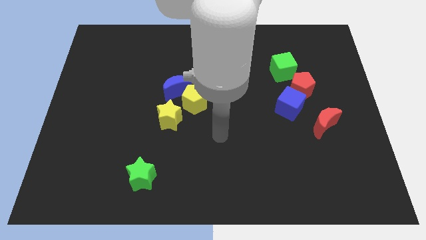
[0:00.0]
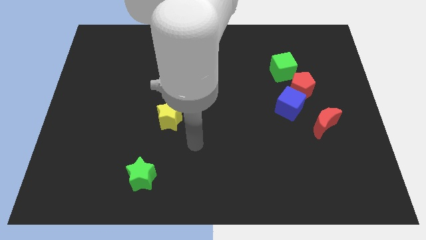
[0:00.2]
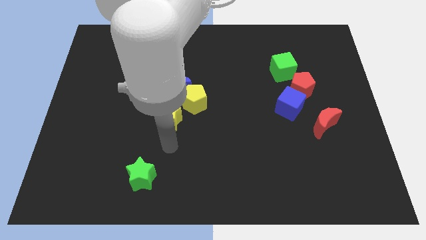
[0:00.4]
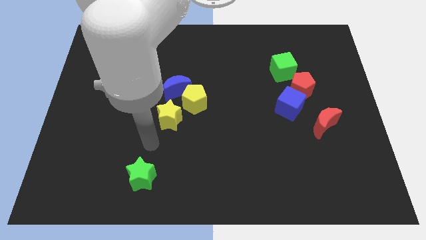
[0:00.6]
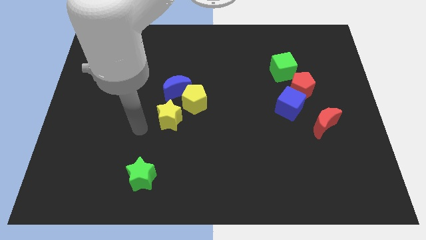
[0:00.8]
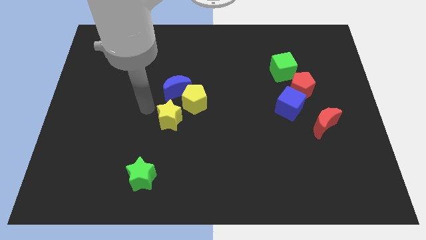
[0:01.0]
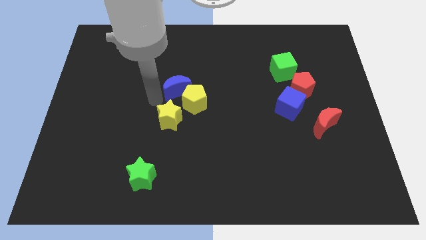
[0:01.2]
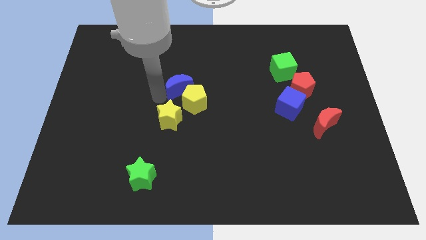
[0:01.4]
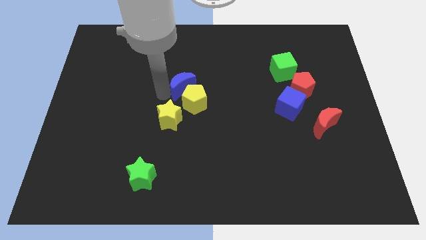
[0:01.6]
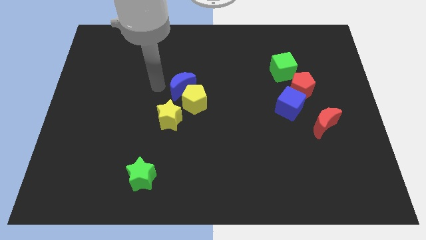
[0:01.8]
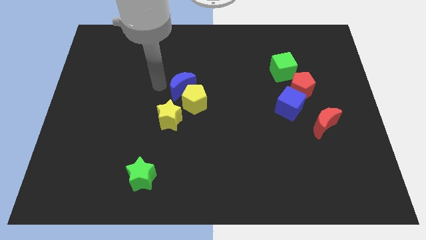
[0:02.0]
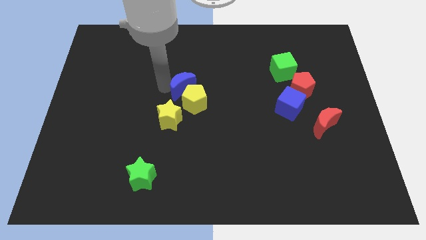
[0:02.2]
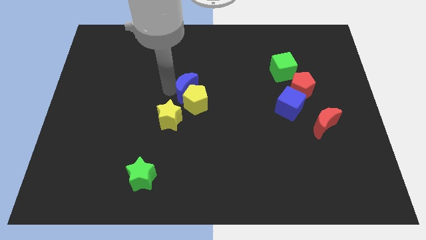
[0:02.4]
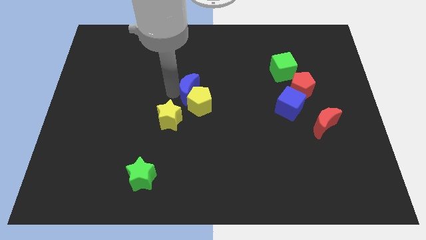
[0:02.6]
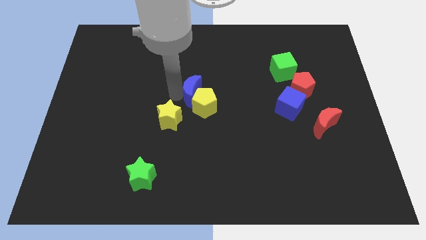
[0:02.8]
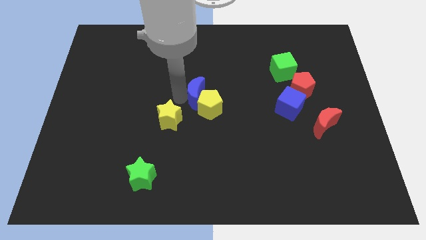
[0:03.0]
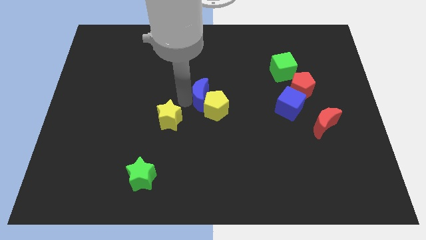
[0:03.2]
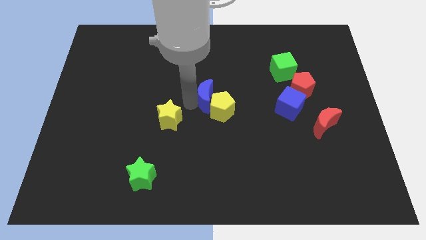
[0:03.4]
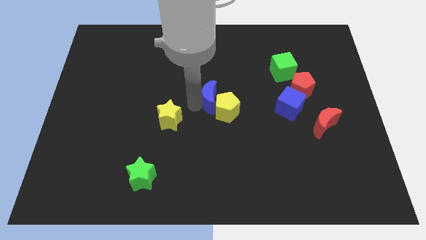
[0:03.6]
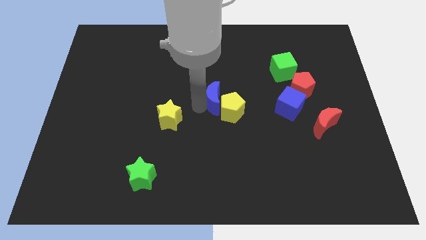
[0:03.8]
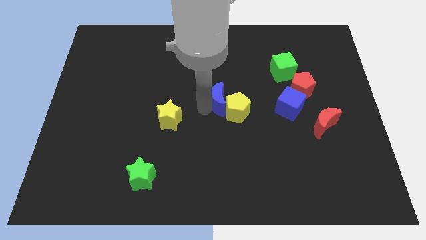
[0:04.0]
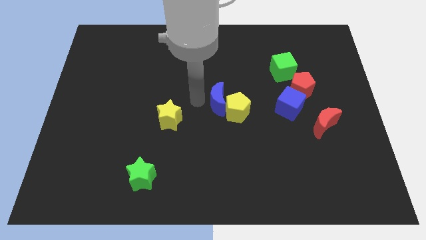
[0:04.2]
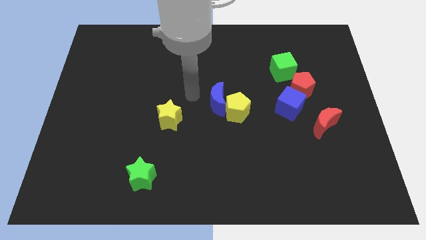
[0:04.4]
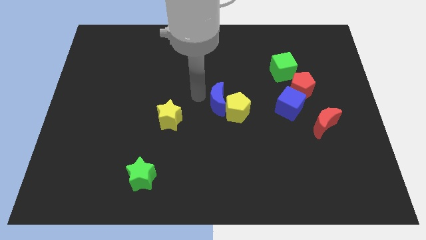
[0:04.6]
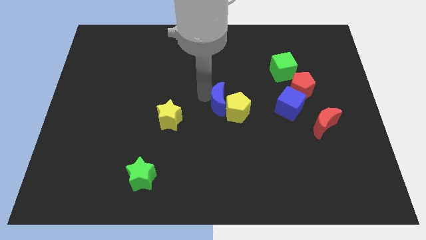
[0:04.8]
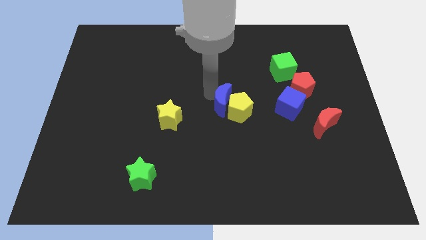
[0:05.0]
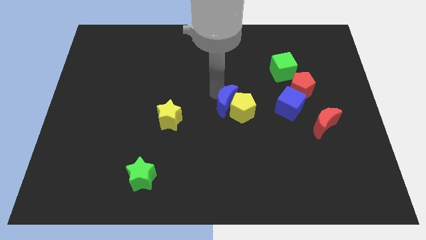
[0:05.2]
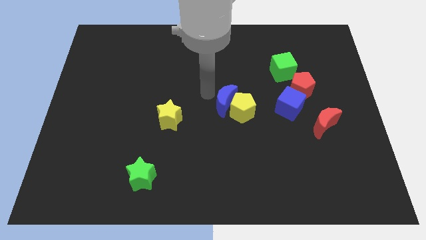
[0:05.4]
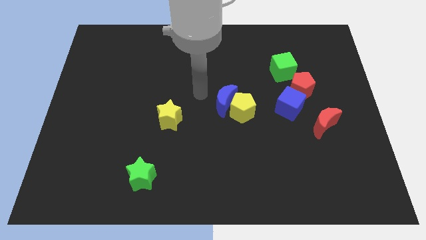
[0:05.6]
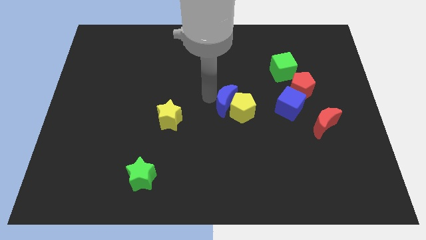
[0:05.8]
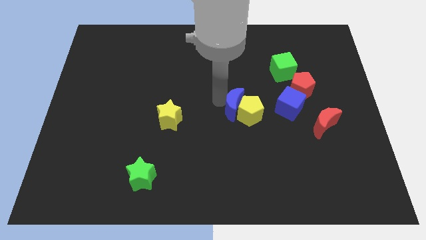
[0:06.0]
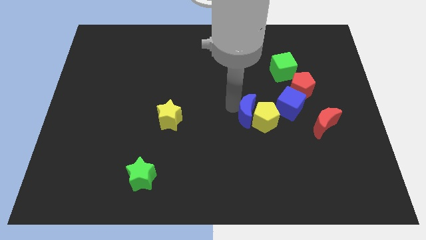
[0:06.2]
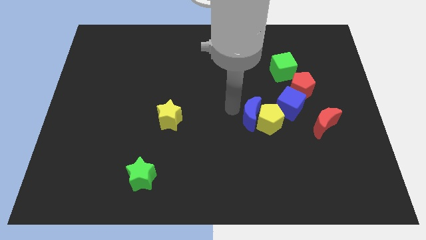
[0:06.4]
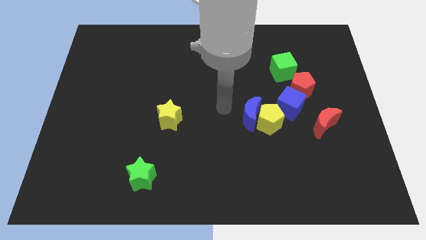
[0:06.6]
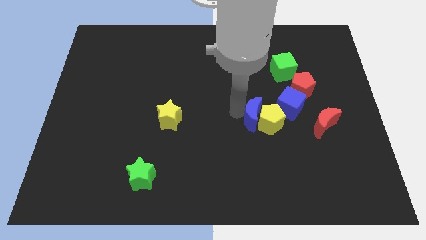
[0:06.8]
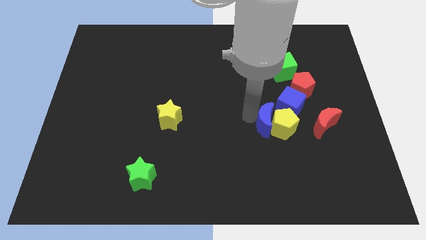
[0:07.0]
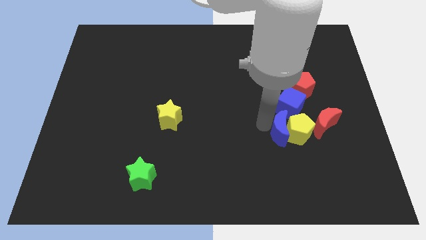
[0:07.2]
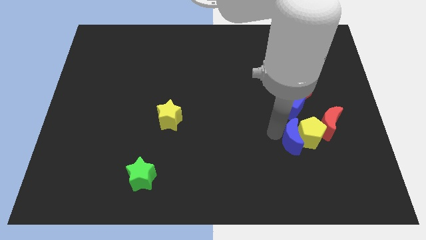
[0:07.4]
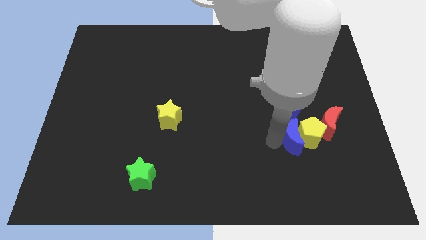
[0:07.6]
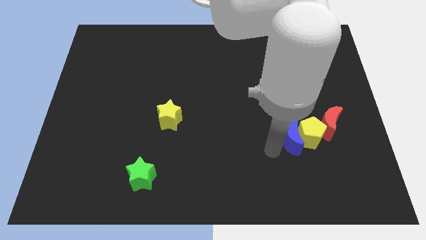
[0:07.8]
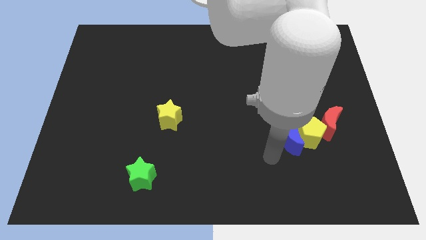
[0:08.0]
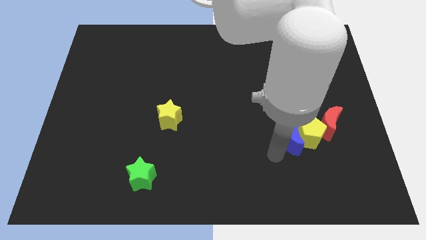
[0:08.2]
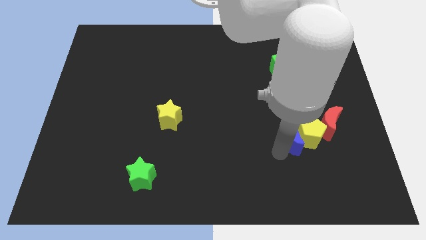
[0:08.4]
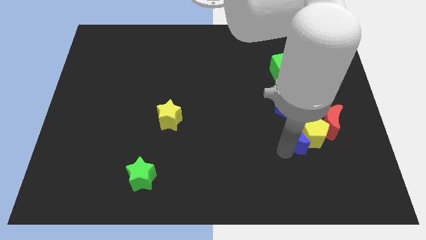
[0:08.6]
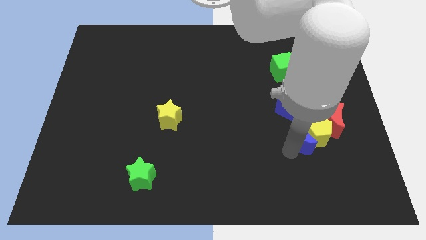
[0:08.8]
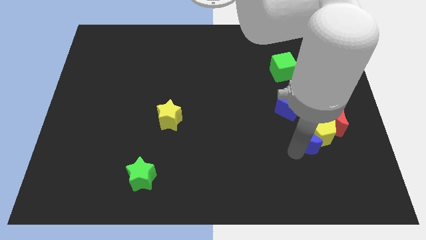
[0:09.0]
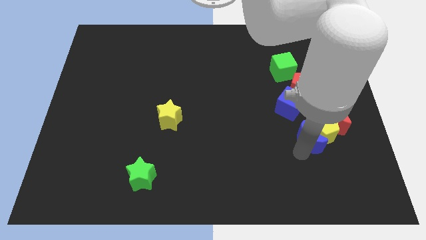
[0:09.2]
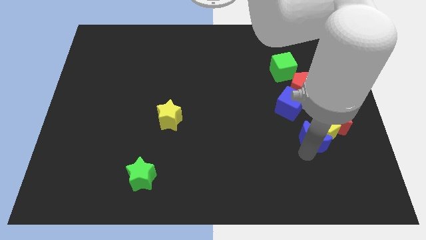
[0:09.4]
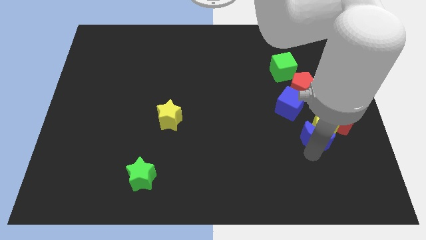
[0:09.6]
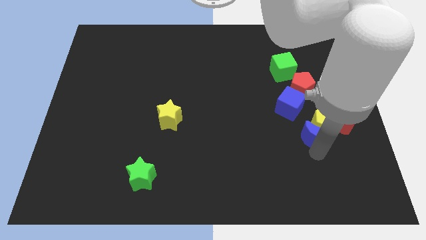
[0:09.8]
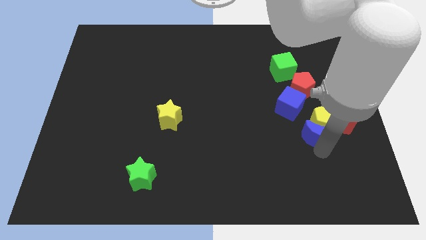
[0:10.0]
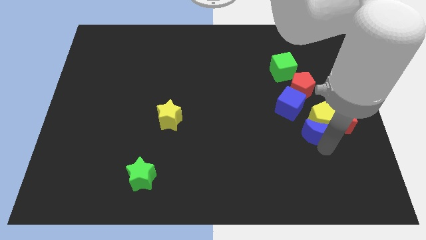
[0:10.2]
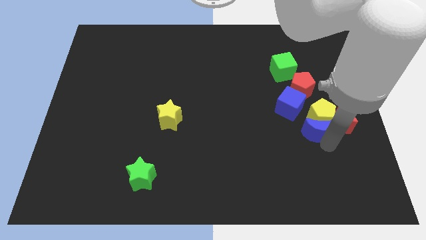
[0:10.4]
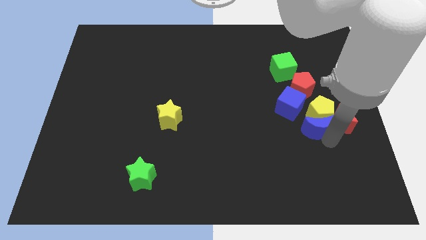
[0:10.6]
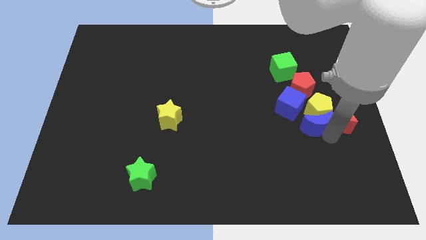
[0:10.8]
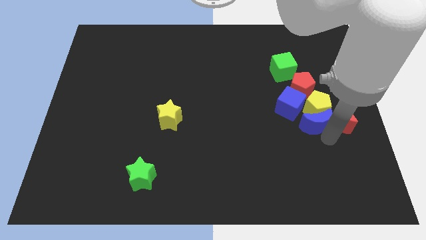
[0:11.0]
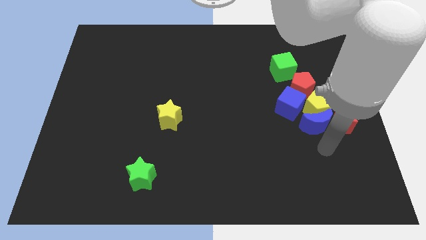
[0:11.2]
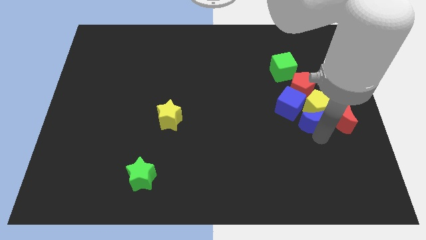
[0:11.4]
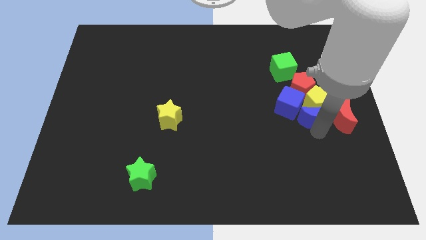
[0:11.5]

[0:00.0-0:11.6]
put the blue moon to the right of the blue cube

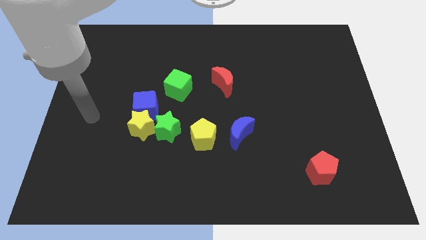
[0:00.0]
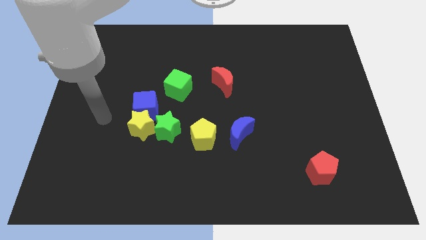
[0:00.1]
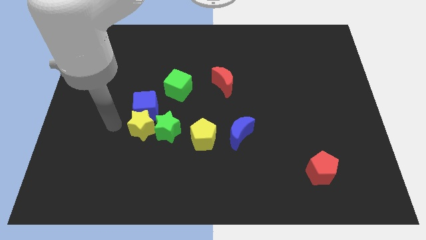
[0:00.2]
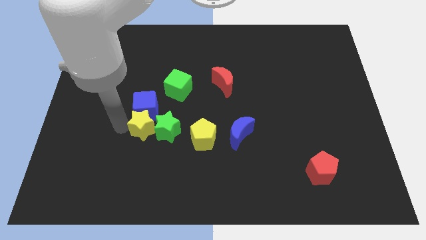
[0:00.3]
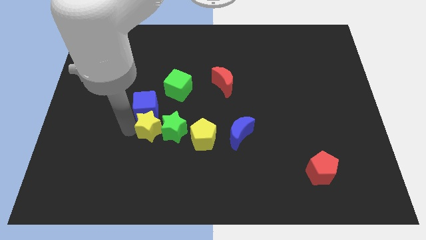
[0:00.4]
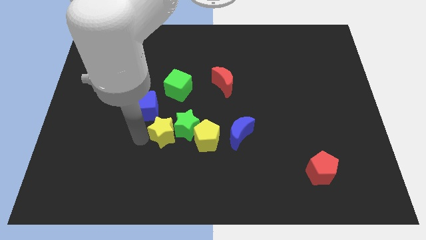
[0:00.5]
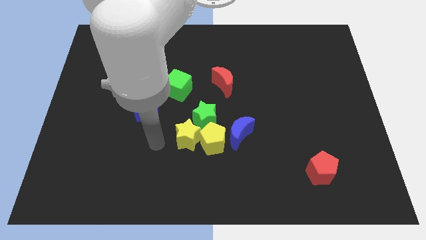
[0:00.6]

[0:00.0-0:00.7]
move the green star diagonally down and to the right of the green cube

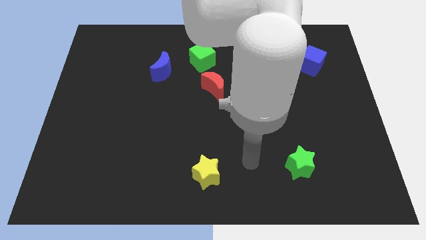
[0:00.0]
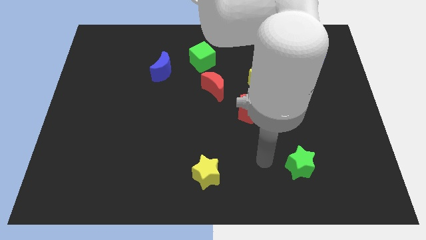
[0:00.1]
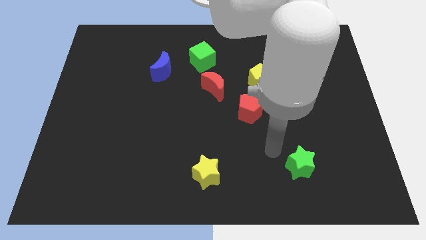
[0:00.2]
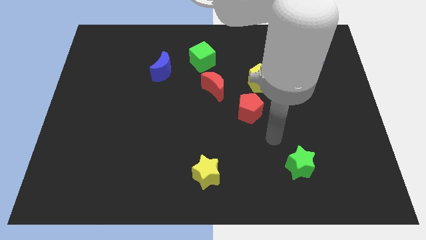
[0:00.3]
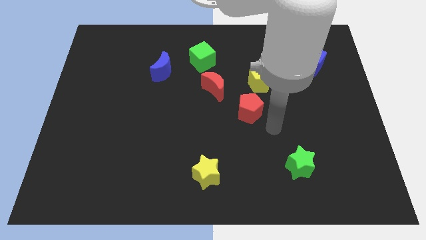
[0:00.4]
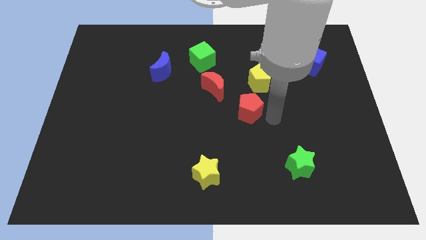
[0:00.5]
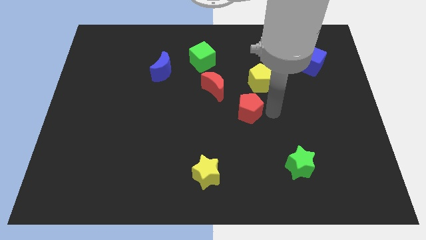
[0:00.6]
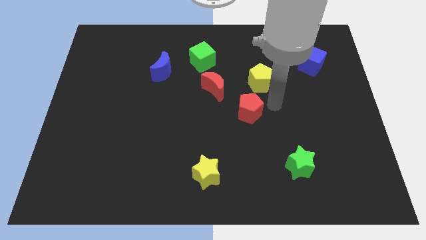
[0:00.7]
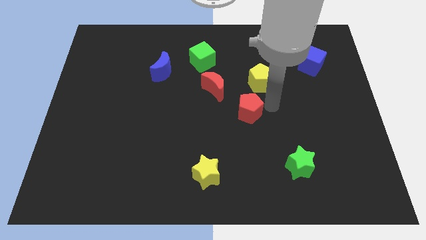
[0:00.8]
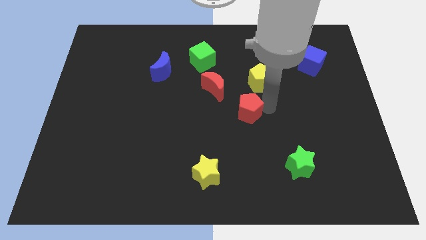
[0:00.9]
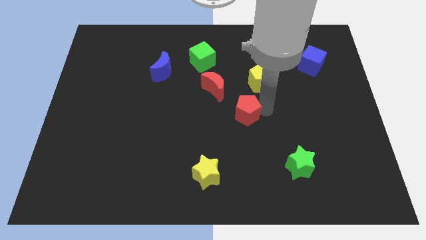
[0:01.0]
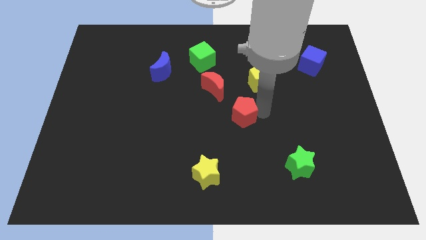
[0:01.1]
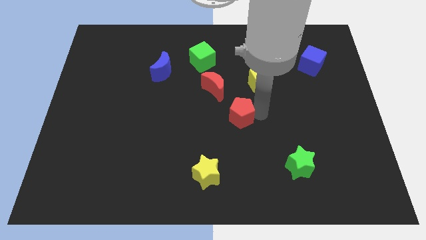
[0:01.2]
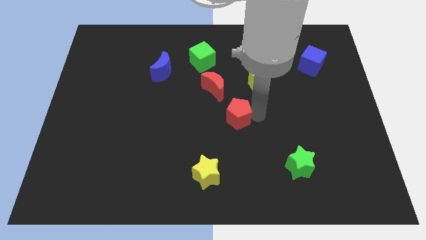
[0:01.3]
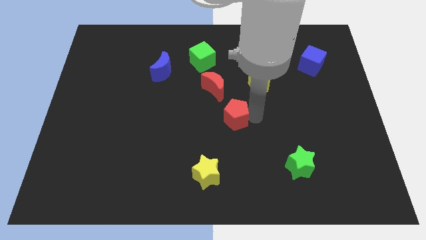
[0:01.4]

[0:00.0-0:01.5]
slide the red pentagon to the bottom of the red moon
